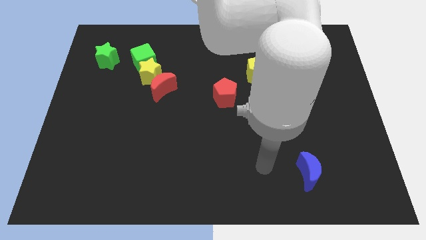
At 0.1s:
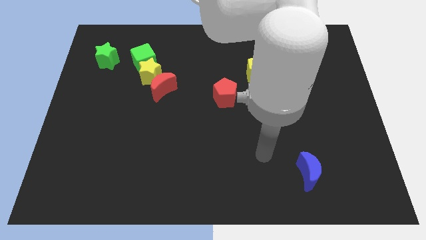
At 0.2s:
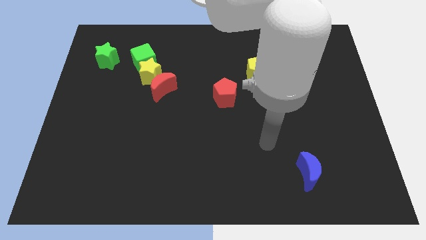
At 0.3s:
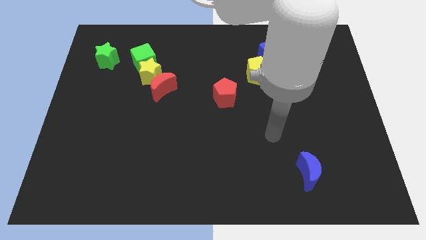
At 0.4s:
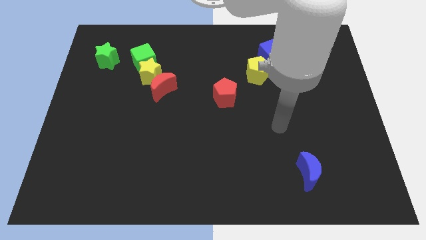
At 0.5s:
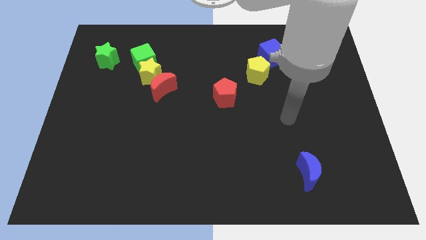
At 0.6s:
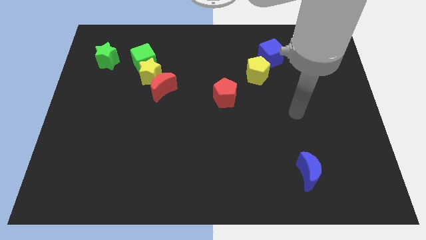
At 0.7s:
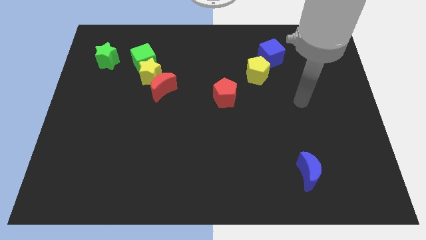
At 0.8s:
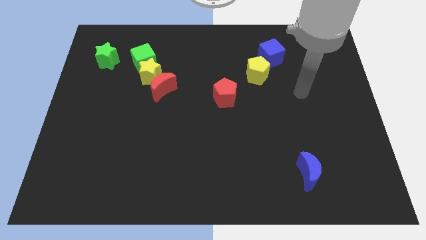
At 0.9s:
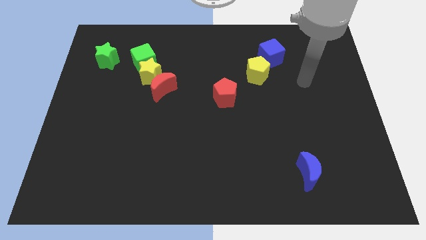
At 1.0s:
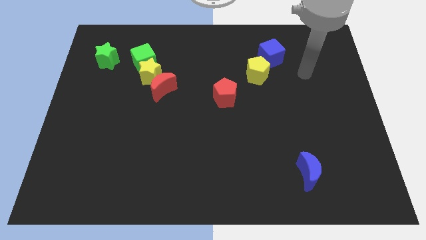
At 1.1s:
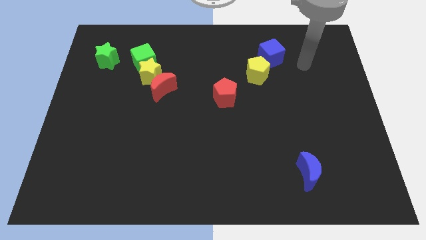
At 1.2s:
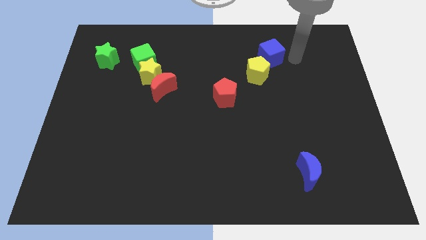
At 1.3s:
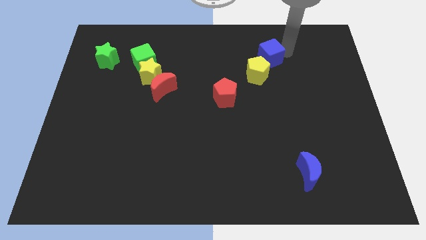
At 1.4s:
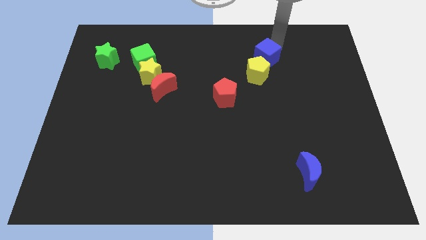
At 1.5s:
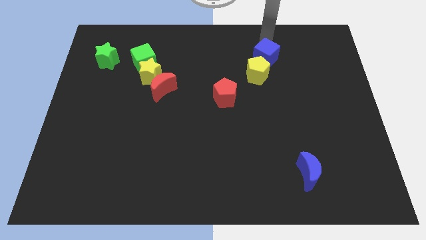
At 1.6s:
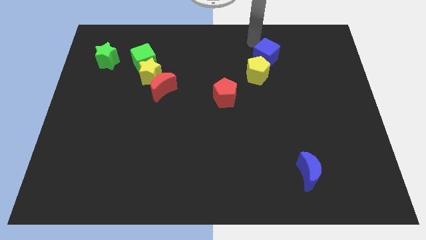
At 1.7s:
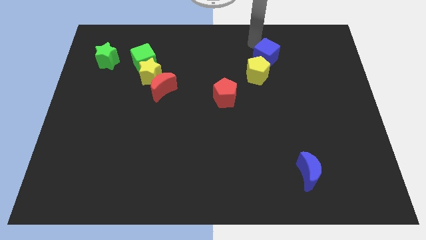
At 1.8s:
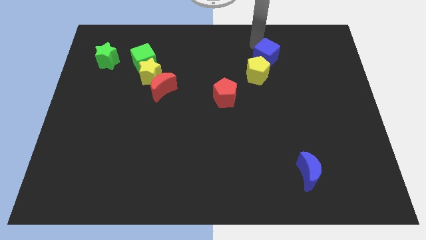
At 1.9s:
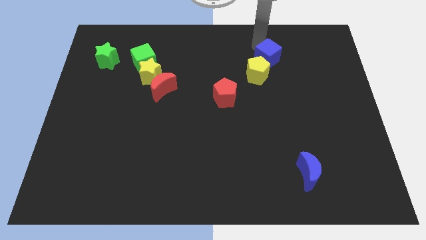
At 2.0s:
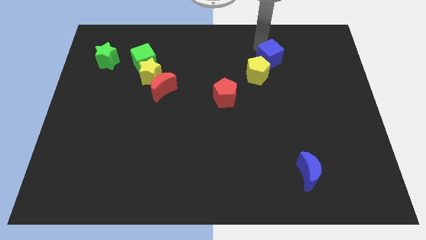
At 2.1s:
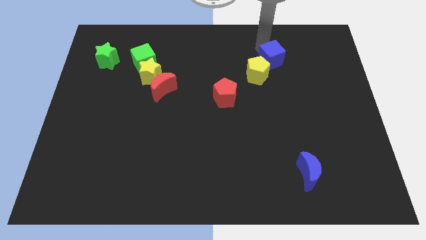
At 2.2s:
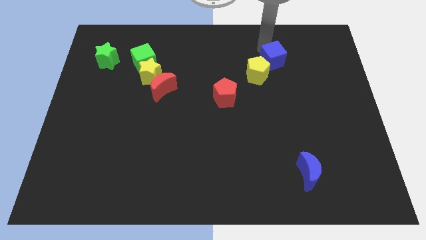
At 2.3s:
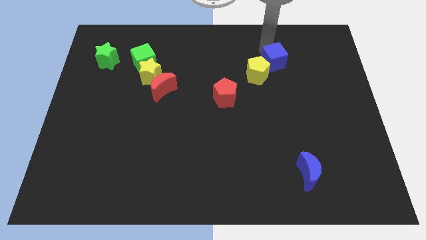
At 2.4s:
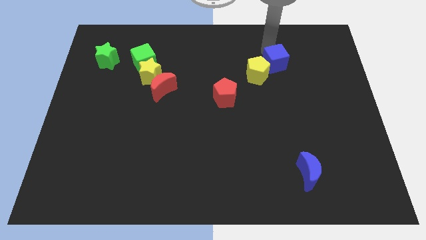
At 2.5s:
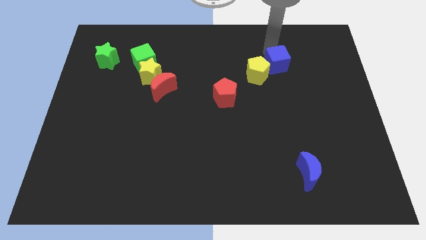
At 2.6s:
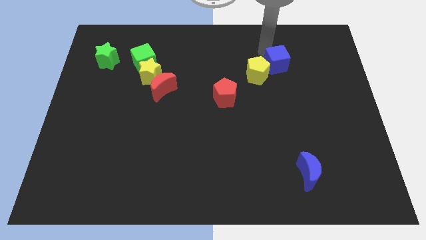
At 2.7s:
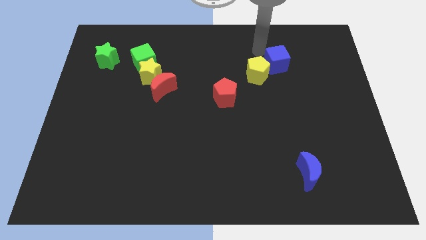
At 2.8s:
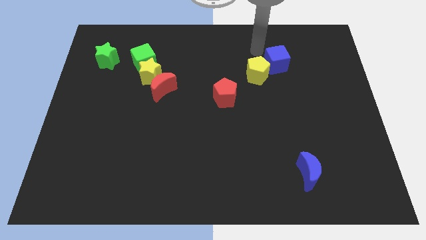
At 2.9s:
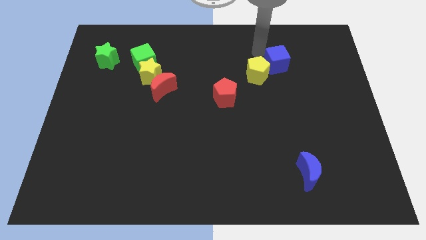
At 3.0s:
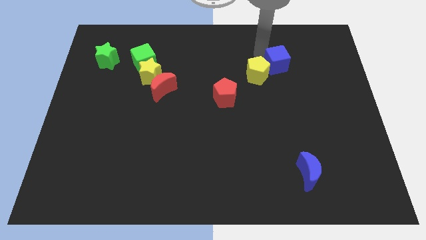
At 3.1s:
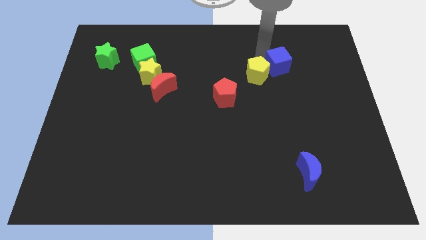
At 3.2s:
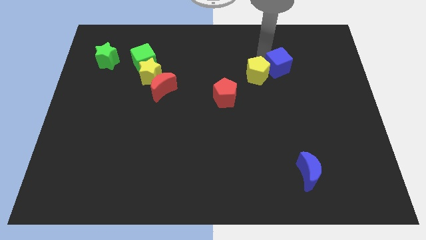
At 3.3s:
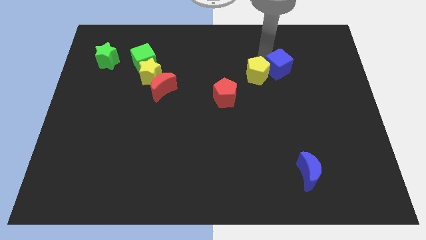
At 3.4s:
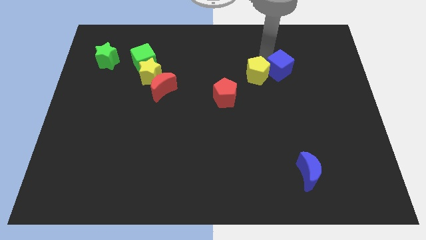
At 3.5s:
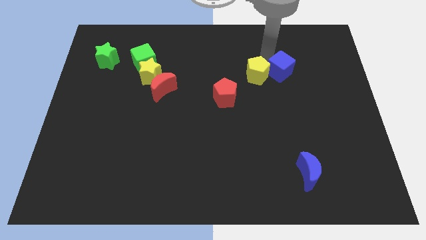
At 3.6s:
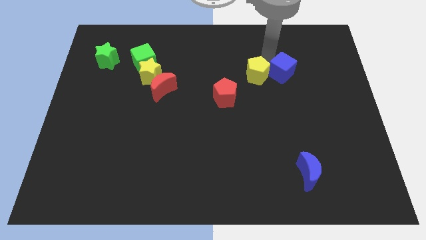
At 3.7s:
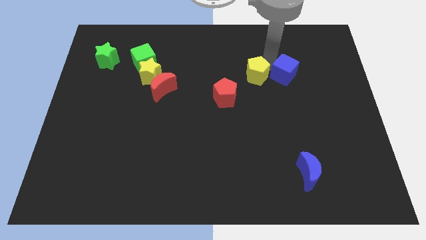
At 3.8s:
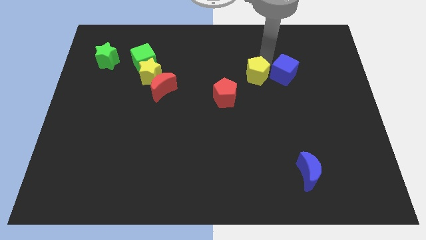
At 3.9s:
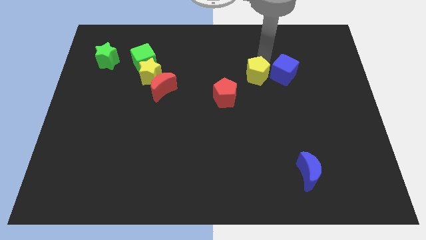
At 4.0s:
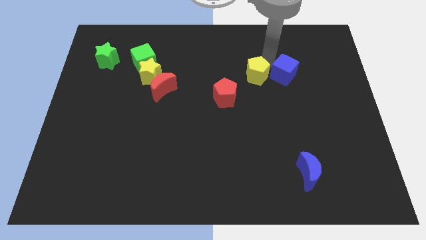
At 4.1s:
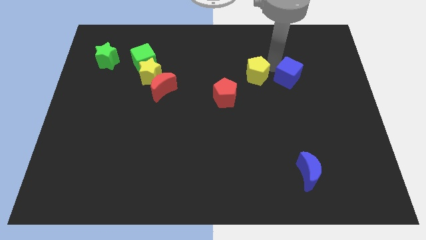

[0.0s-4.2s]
push the blue cube down and right a little bit

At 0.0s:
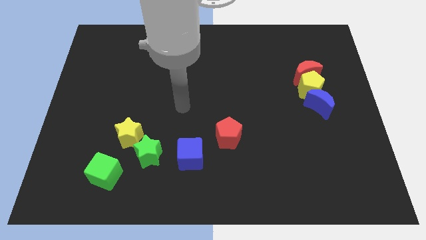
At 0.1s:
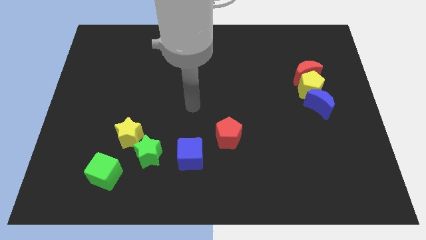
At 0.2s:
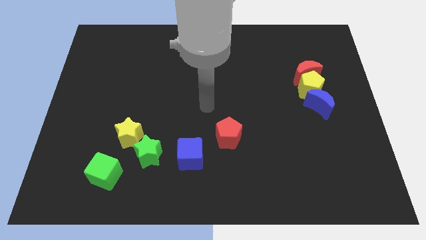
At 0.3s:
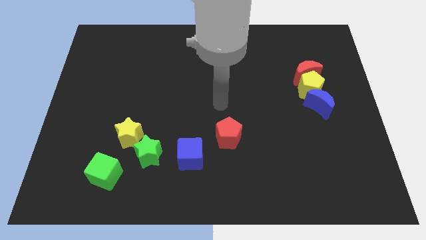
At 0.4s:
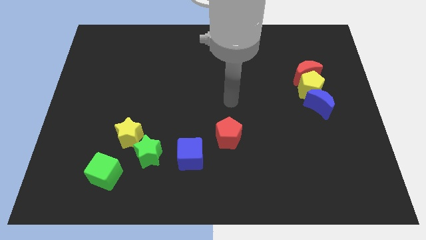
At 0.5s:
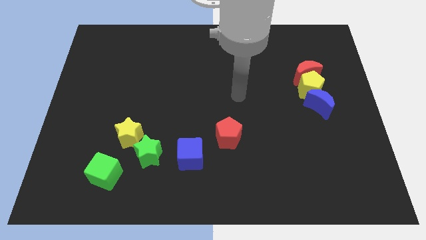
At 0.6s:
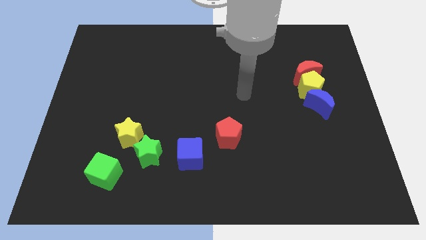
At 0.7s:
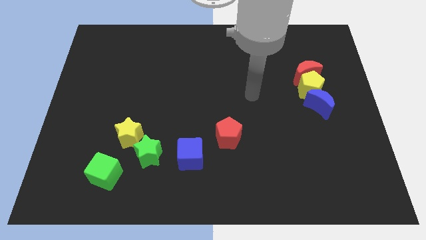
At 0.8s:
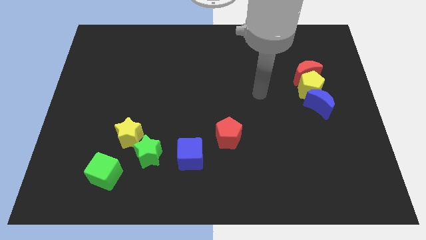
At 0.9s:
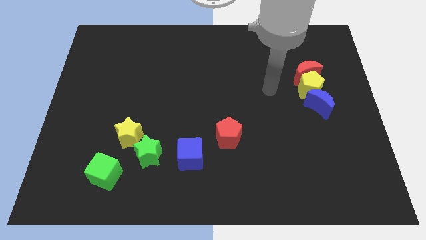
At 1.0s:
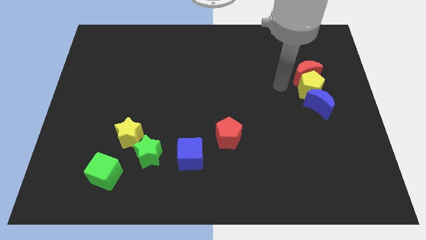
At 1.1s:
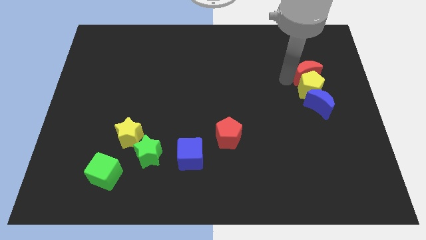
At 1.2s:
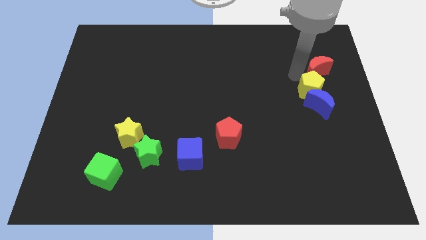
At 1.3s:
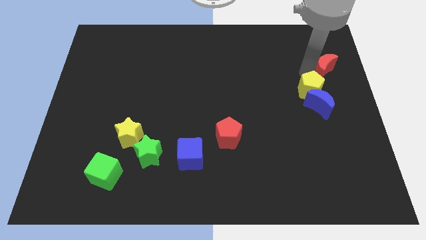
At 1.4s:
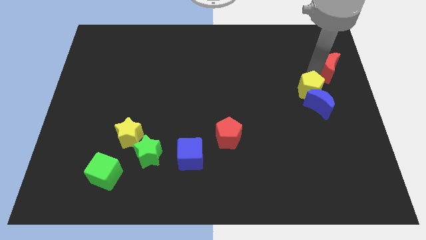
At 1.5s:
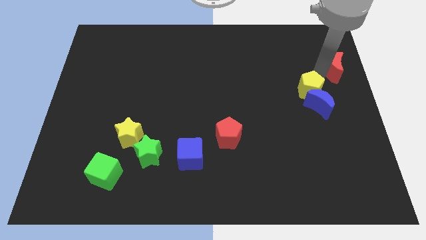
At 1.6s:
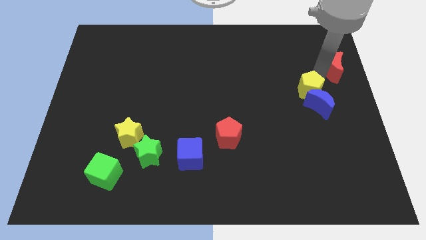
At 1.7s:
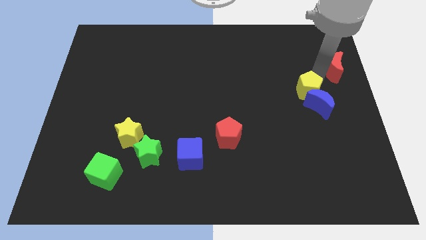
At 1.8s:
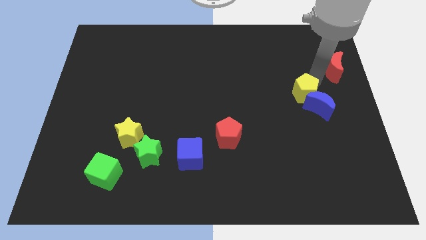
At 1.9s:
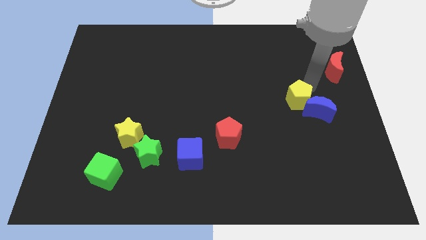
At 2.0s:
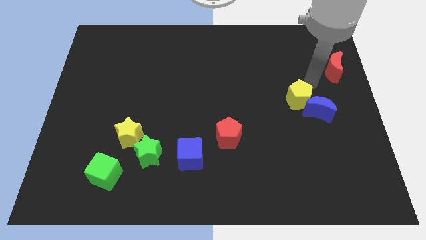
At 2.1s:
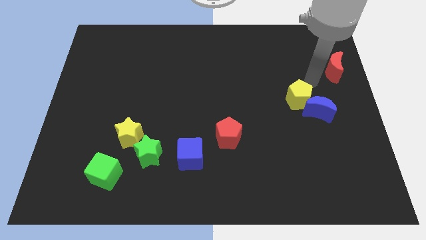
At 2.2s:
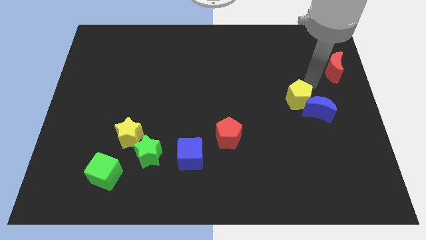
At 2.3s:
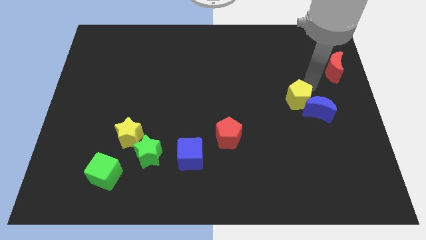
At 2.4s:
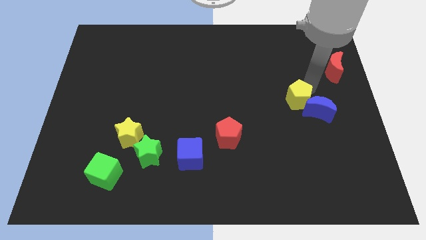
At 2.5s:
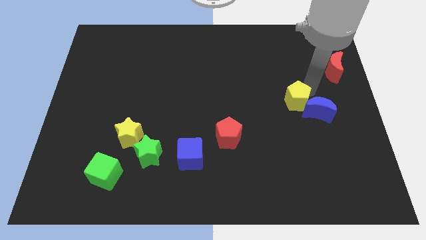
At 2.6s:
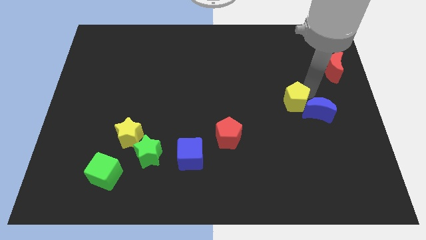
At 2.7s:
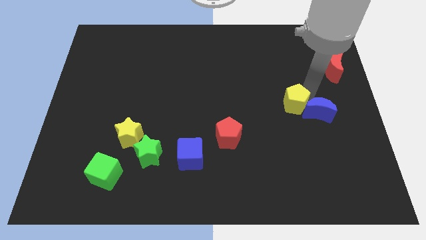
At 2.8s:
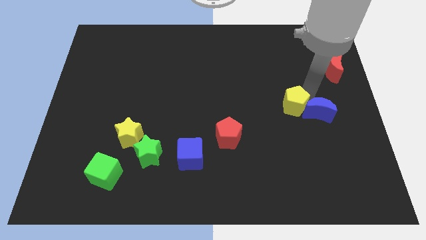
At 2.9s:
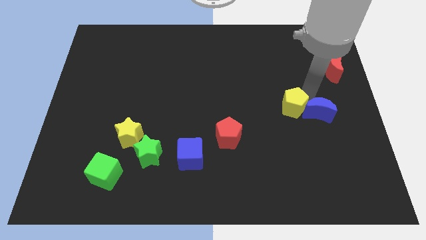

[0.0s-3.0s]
push the yellow pentagon a little diagonally downwards and left

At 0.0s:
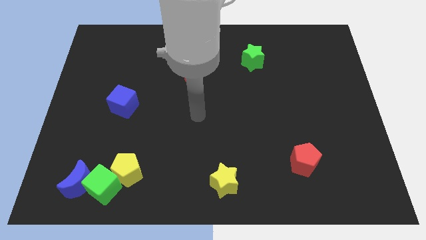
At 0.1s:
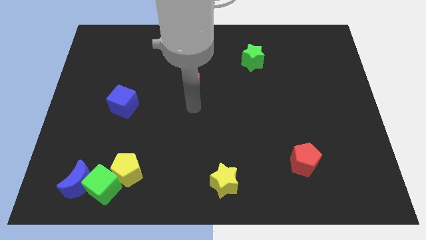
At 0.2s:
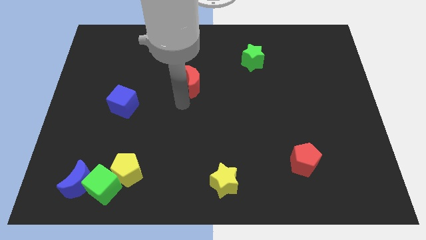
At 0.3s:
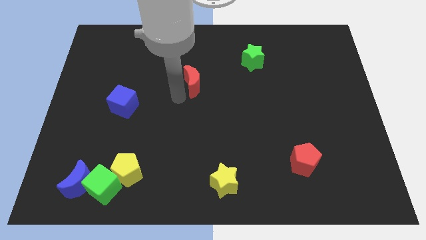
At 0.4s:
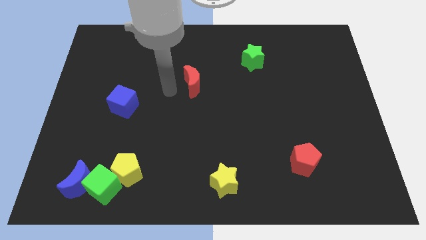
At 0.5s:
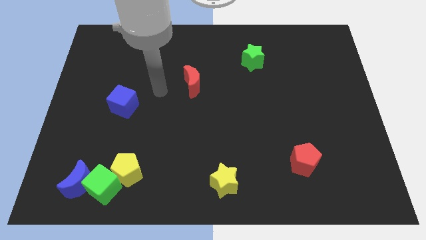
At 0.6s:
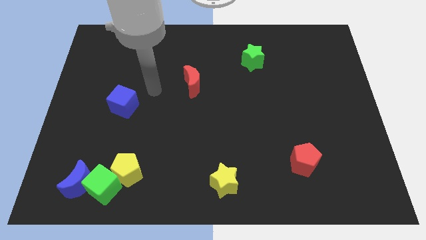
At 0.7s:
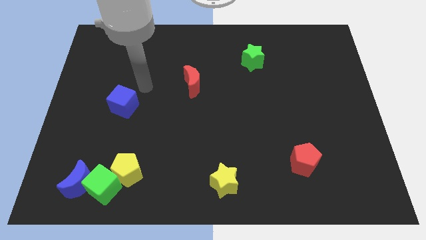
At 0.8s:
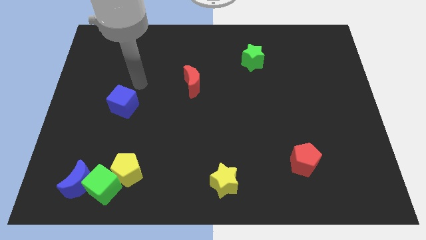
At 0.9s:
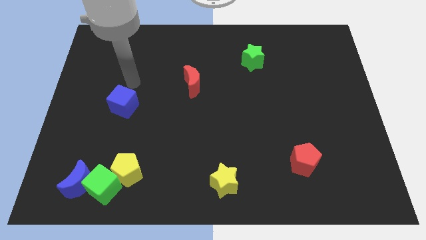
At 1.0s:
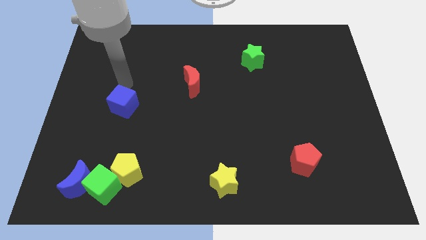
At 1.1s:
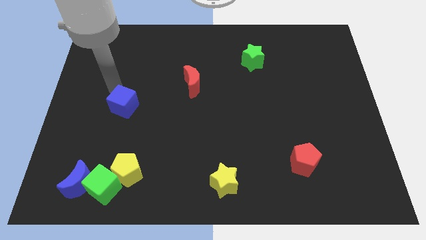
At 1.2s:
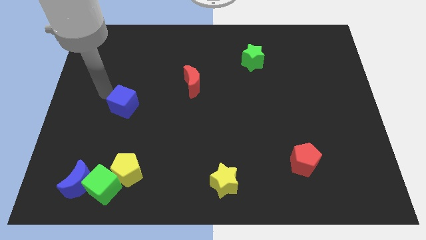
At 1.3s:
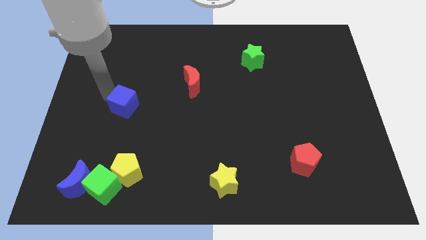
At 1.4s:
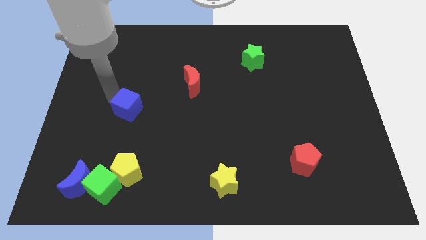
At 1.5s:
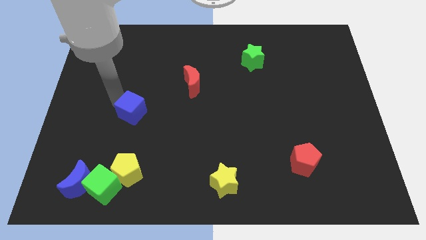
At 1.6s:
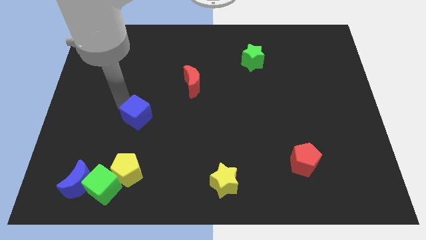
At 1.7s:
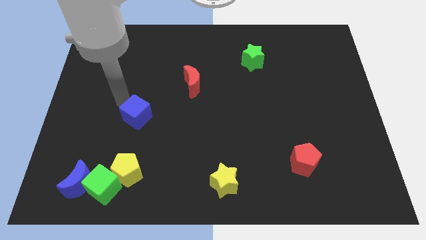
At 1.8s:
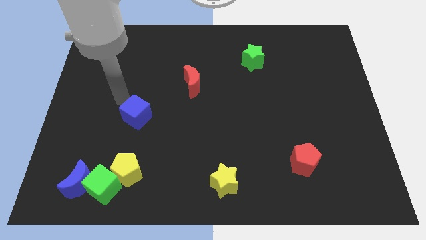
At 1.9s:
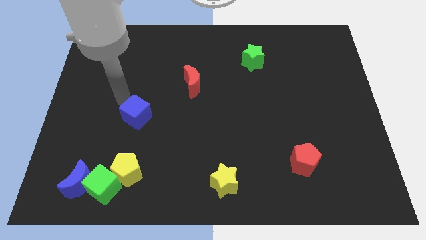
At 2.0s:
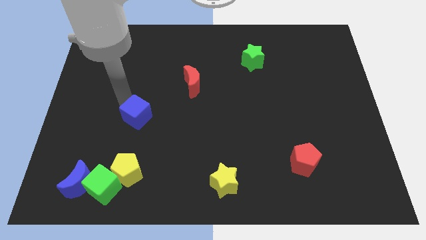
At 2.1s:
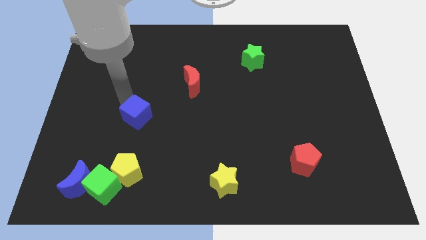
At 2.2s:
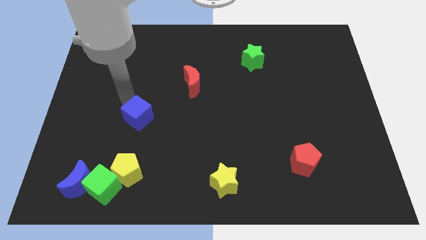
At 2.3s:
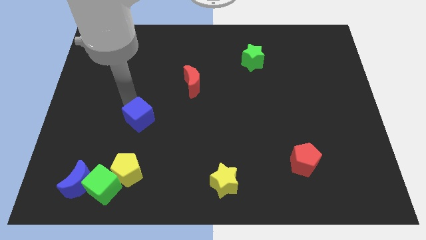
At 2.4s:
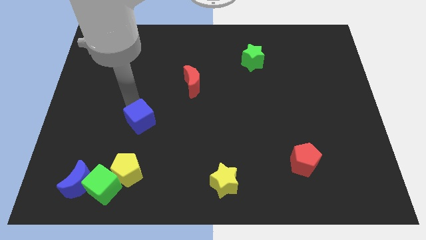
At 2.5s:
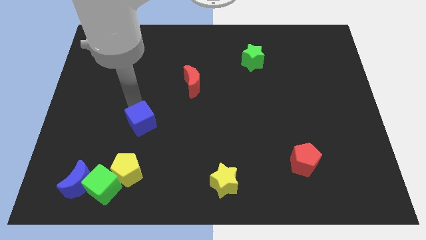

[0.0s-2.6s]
slightly slide the blue cube down and then right
